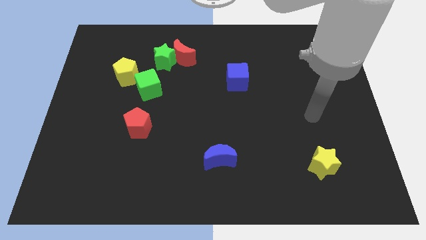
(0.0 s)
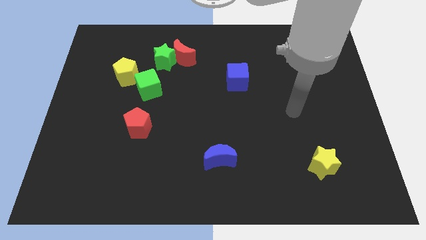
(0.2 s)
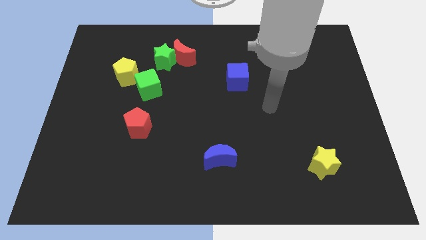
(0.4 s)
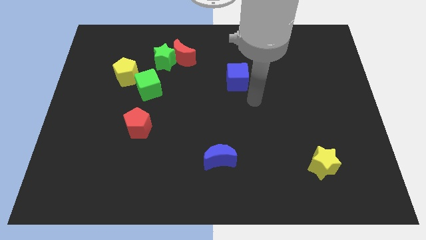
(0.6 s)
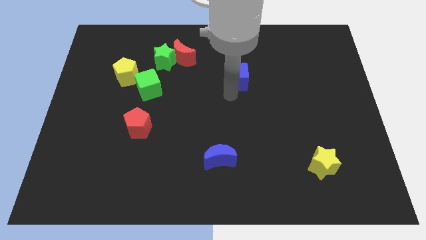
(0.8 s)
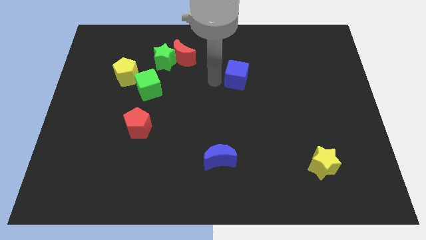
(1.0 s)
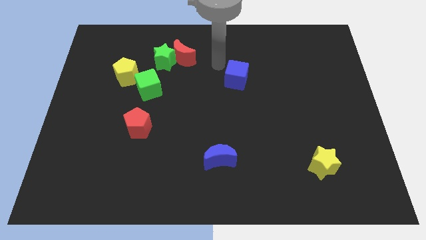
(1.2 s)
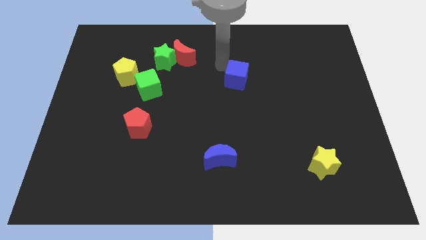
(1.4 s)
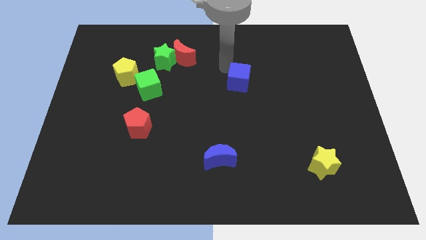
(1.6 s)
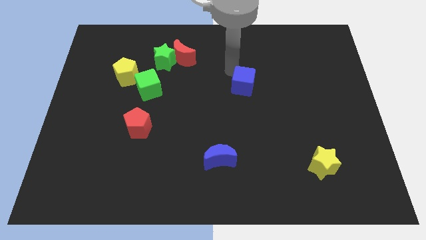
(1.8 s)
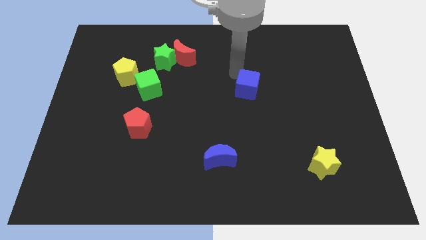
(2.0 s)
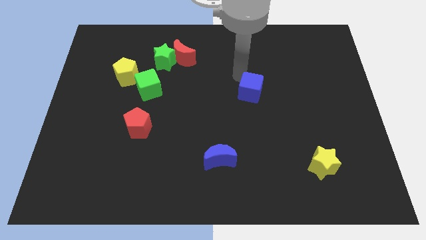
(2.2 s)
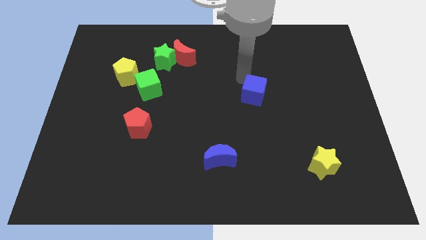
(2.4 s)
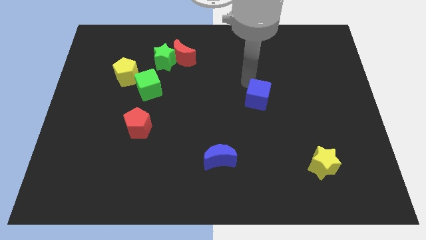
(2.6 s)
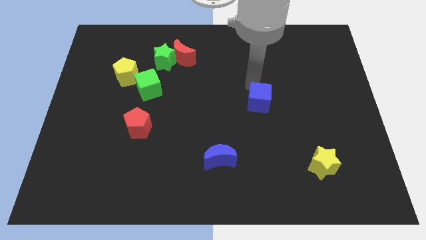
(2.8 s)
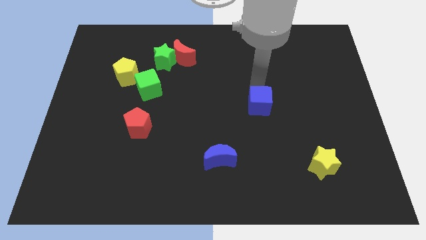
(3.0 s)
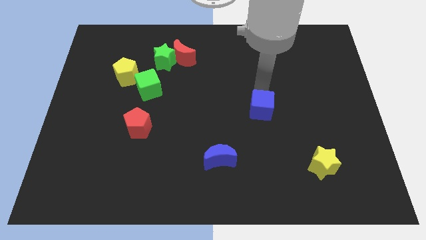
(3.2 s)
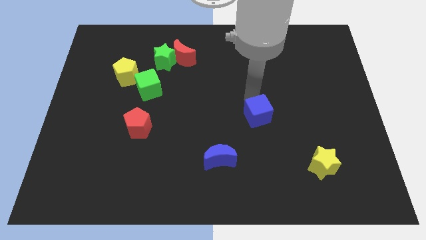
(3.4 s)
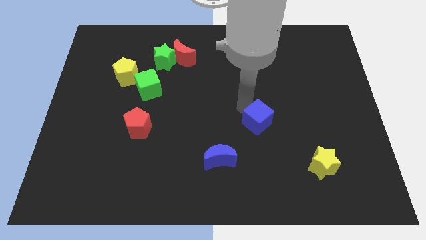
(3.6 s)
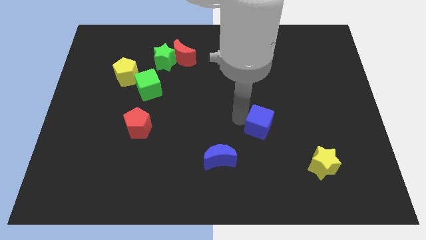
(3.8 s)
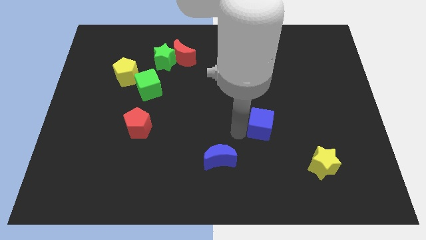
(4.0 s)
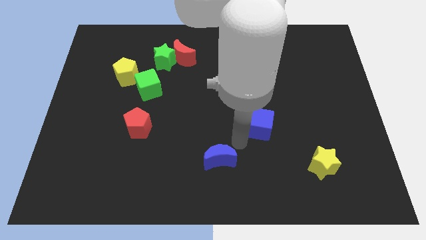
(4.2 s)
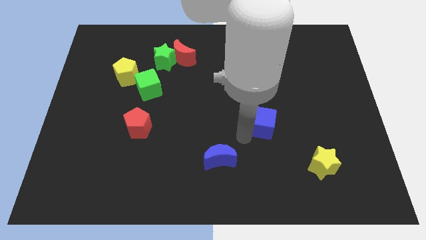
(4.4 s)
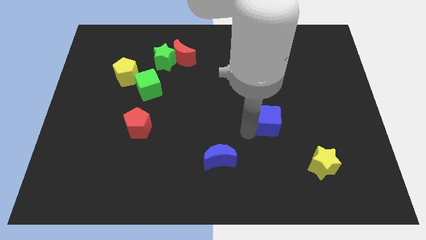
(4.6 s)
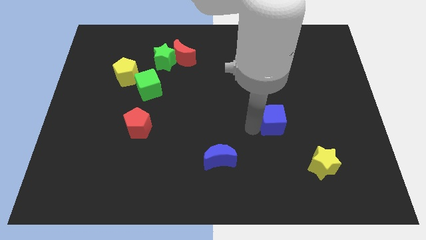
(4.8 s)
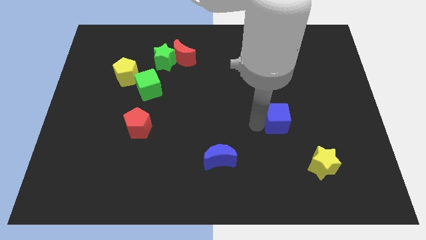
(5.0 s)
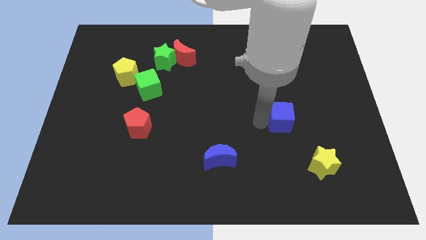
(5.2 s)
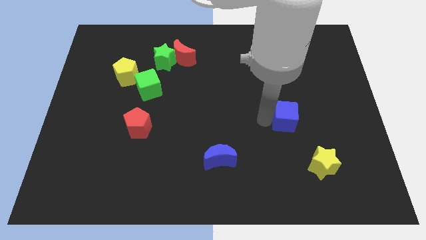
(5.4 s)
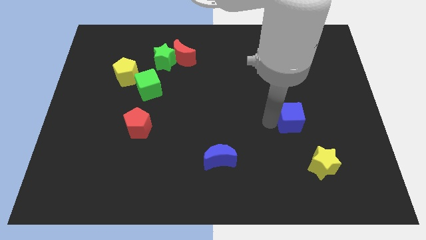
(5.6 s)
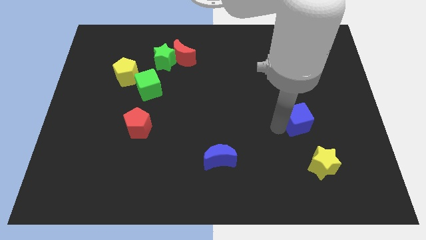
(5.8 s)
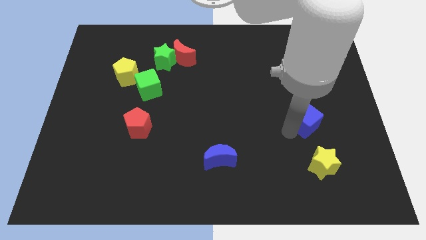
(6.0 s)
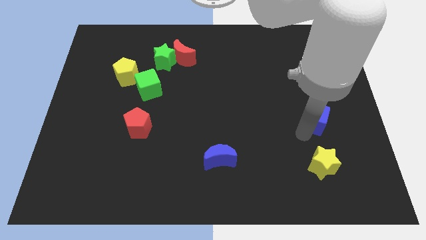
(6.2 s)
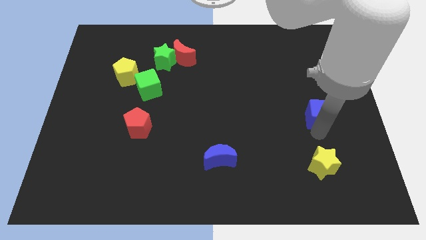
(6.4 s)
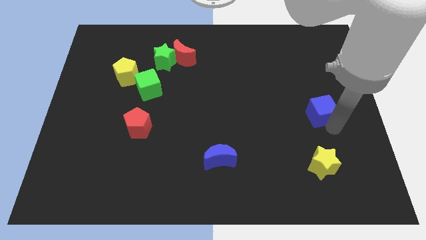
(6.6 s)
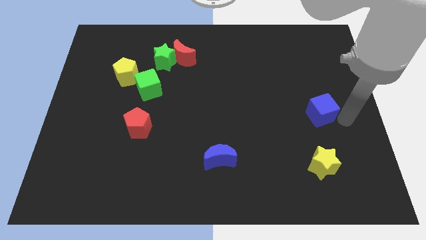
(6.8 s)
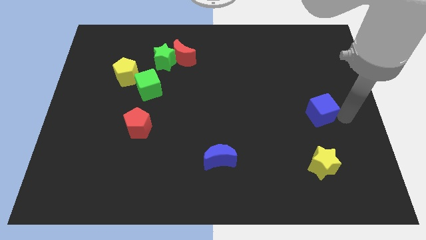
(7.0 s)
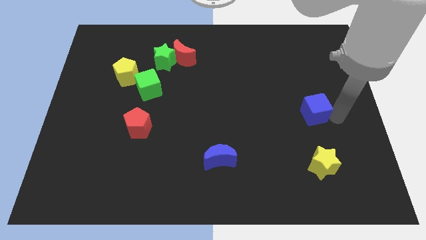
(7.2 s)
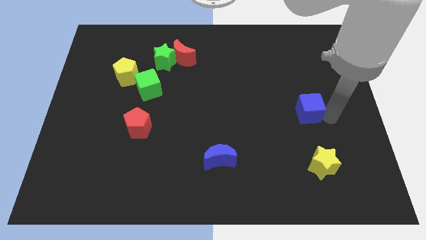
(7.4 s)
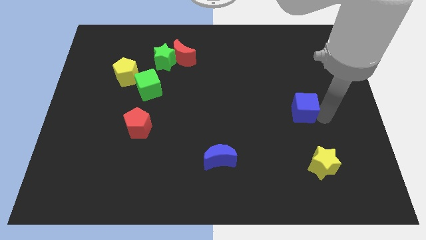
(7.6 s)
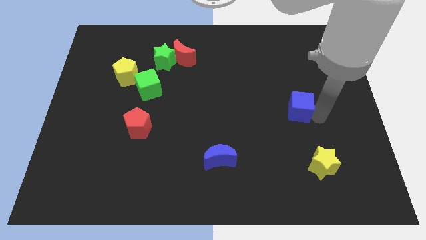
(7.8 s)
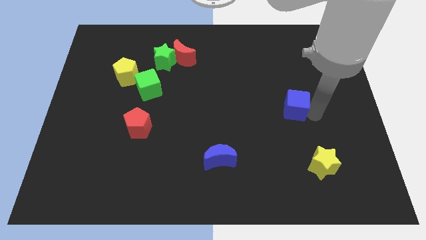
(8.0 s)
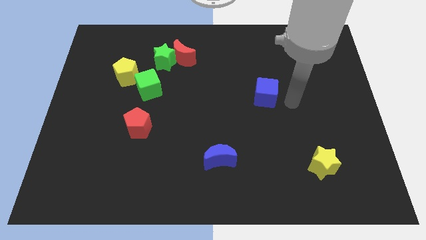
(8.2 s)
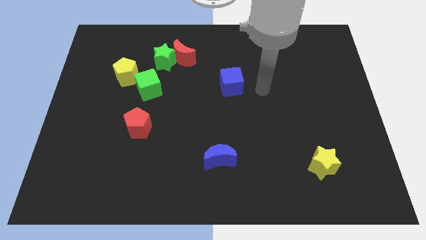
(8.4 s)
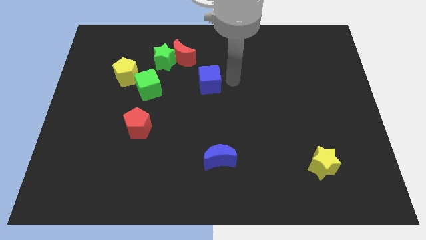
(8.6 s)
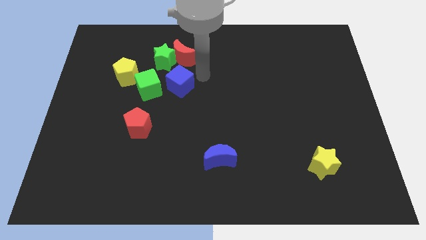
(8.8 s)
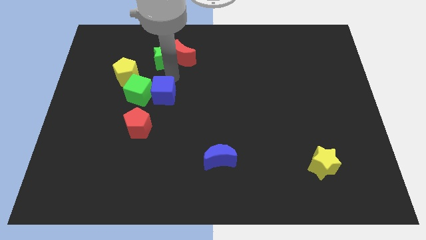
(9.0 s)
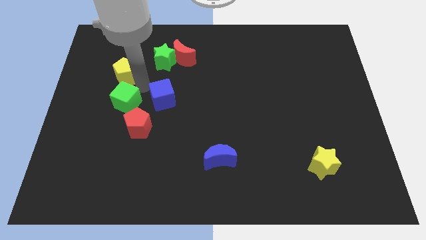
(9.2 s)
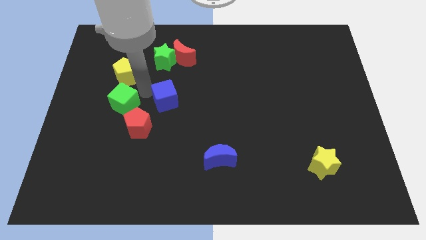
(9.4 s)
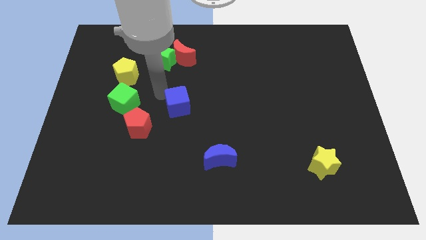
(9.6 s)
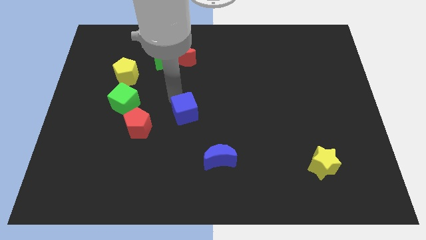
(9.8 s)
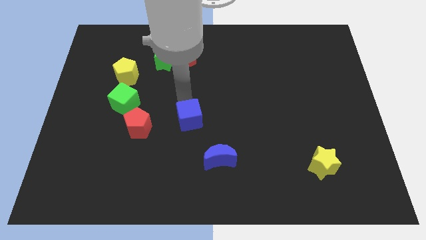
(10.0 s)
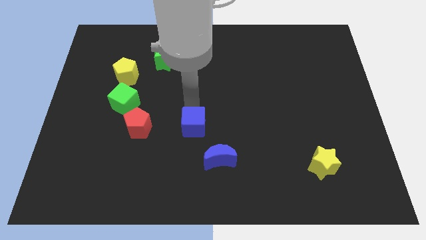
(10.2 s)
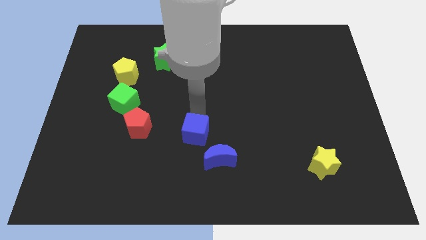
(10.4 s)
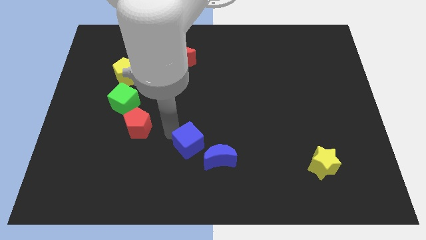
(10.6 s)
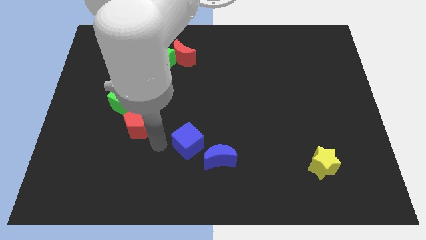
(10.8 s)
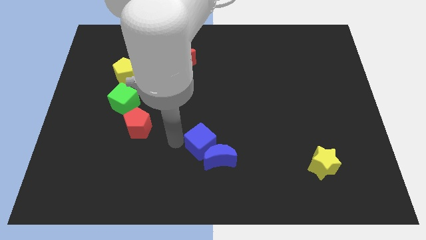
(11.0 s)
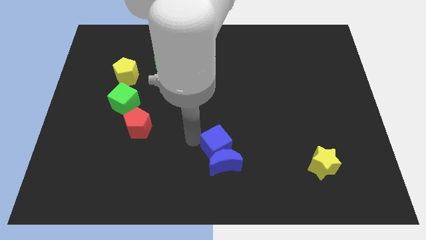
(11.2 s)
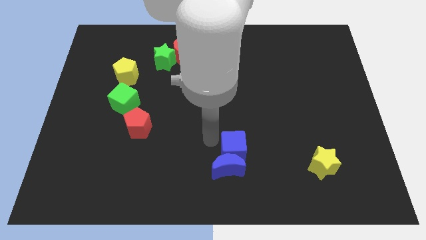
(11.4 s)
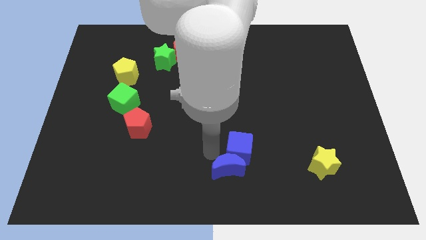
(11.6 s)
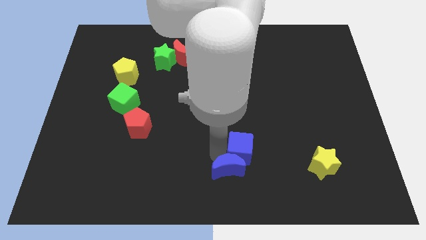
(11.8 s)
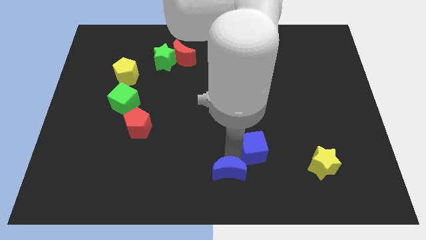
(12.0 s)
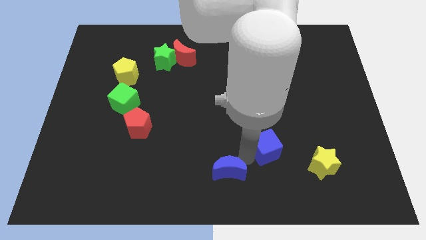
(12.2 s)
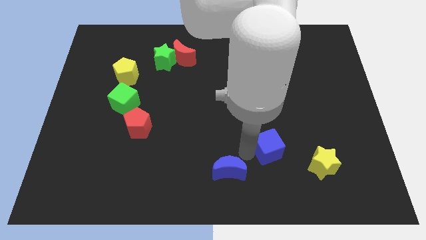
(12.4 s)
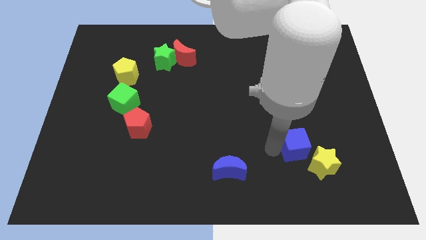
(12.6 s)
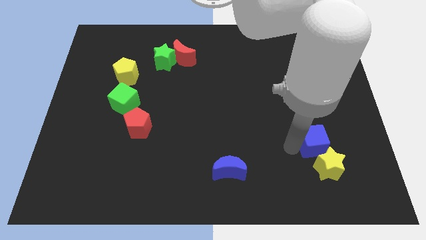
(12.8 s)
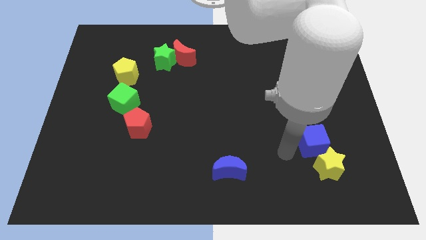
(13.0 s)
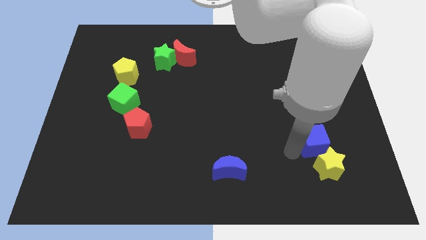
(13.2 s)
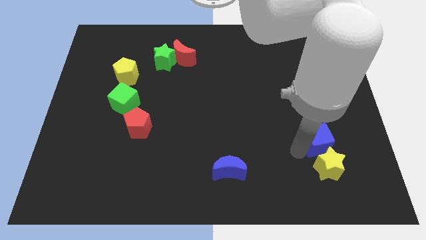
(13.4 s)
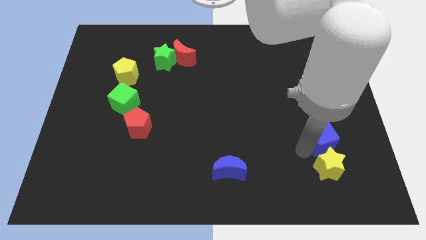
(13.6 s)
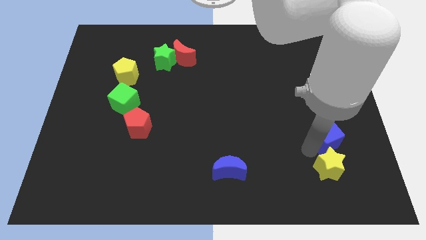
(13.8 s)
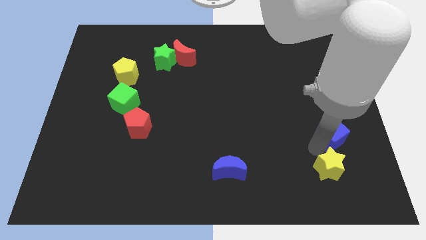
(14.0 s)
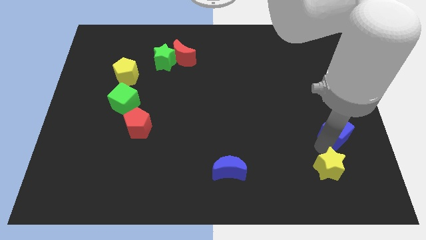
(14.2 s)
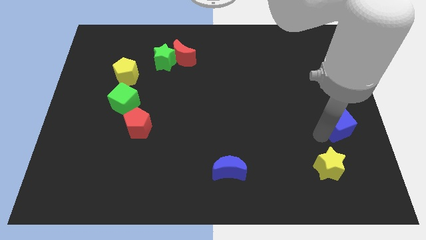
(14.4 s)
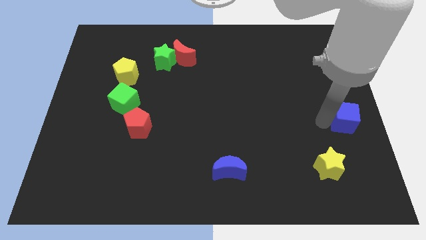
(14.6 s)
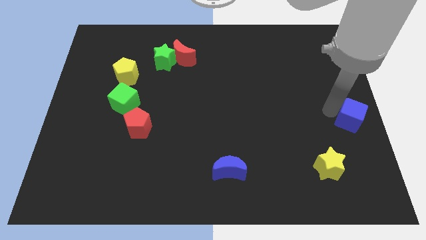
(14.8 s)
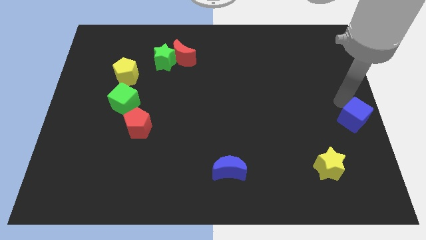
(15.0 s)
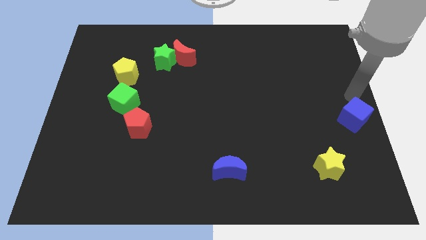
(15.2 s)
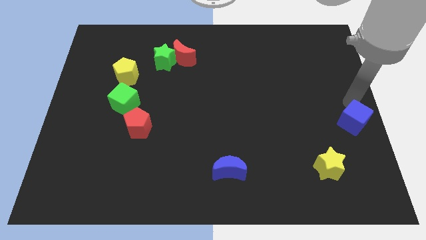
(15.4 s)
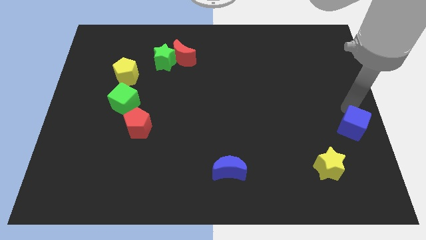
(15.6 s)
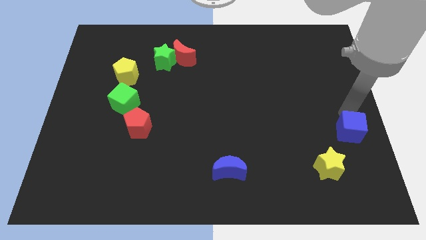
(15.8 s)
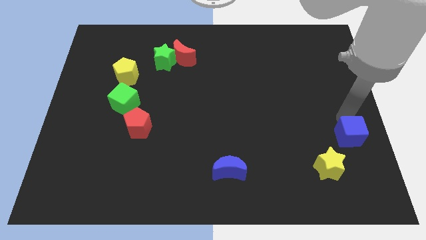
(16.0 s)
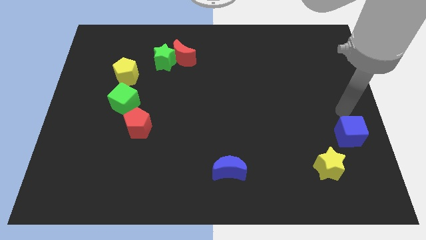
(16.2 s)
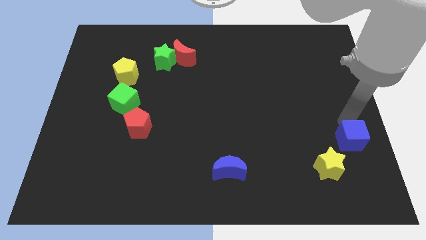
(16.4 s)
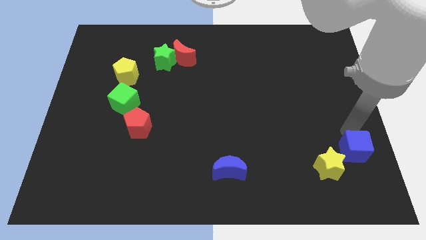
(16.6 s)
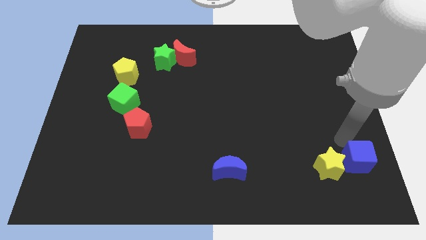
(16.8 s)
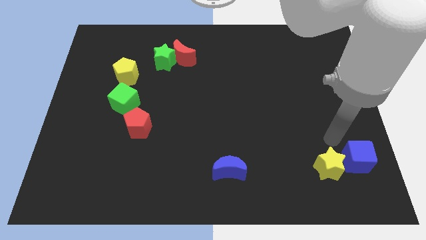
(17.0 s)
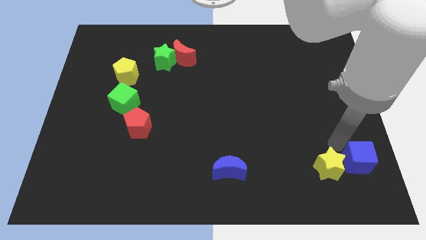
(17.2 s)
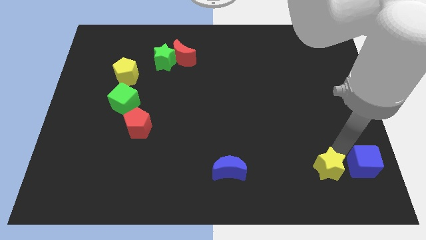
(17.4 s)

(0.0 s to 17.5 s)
slide the blue cube to the bottom right corner
